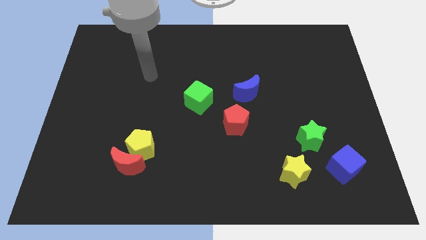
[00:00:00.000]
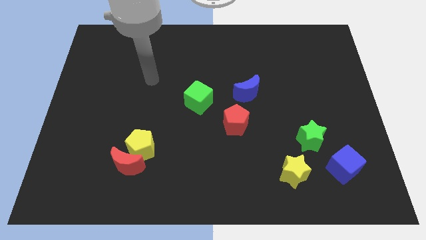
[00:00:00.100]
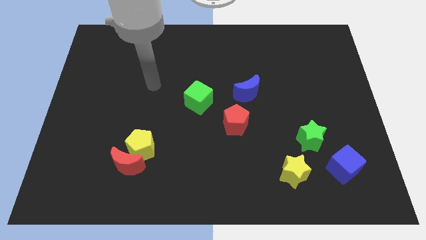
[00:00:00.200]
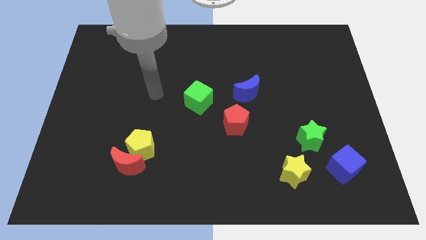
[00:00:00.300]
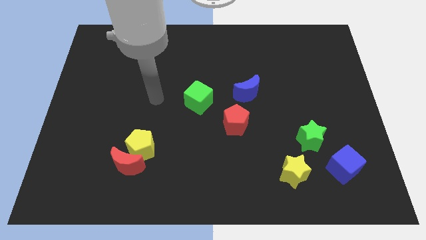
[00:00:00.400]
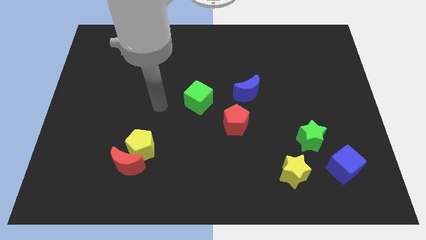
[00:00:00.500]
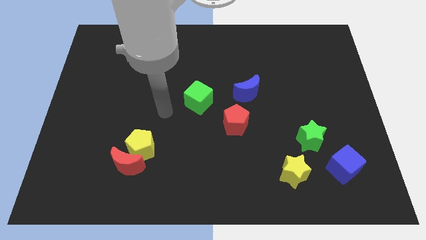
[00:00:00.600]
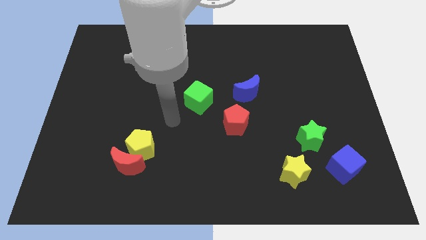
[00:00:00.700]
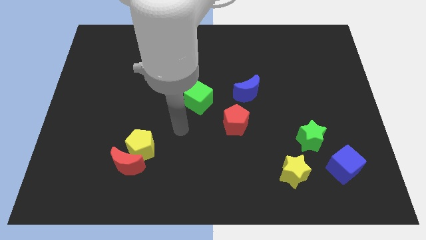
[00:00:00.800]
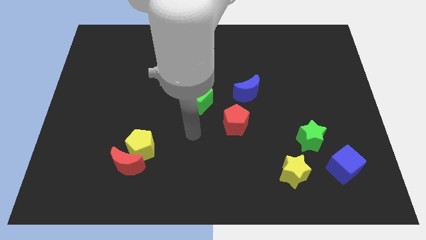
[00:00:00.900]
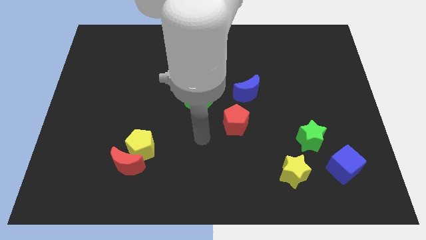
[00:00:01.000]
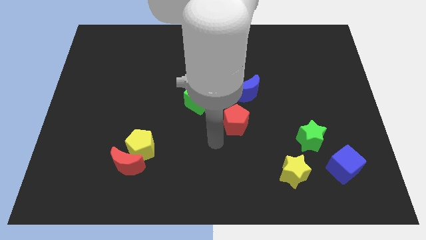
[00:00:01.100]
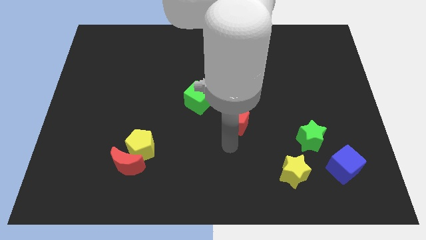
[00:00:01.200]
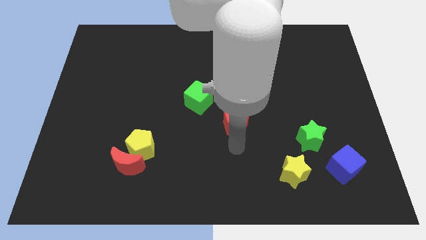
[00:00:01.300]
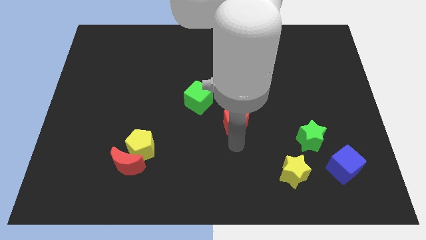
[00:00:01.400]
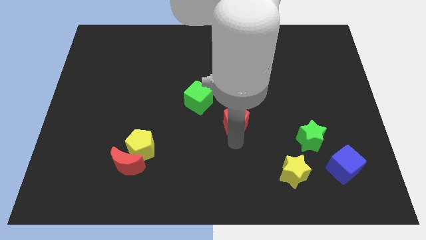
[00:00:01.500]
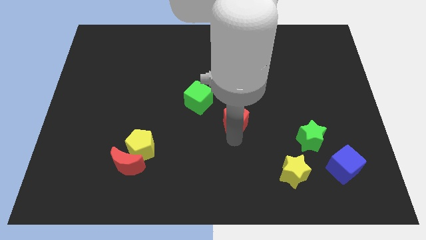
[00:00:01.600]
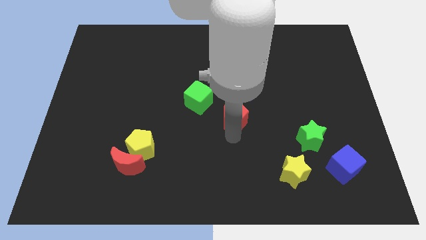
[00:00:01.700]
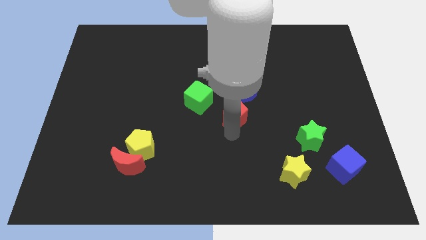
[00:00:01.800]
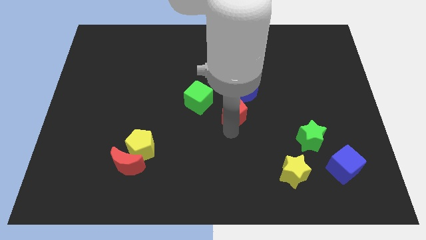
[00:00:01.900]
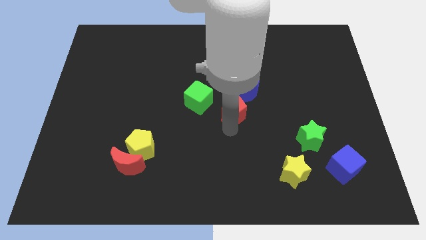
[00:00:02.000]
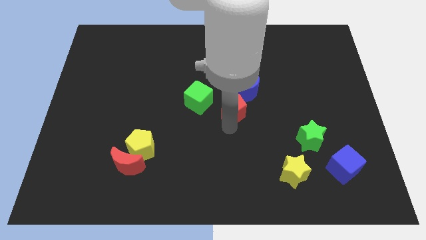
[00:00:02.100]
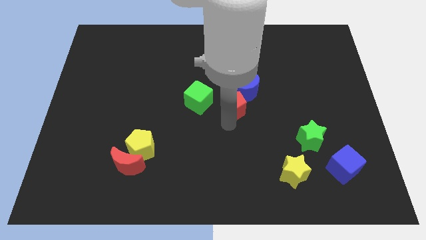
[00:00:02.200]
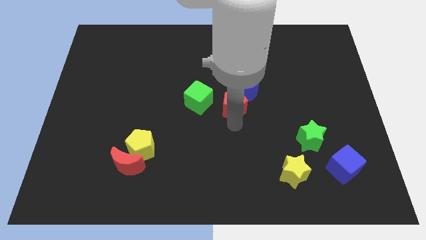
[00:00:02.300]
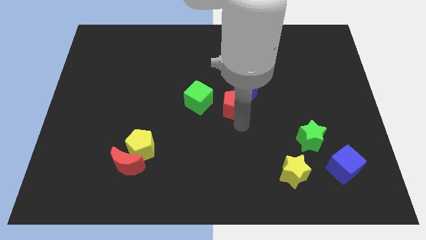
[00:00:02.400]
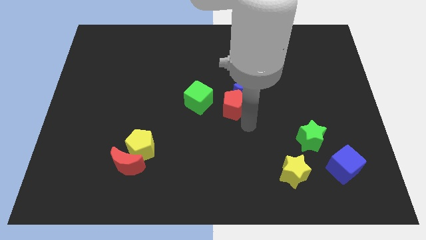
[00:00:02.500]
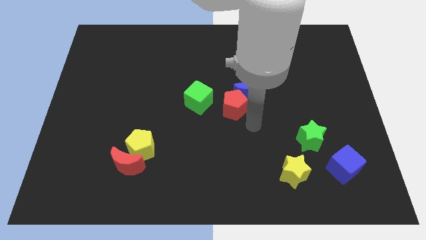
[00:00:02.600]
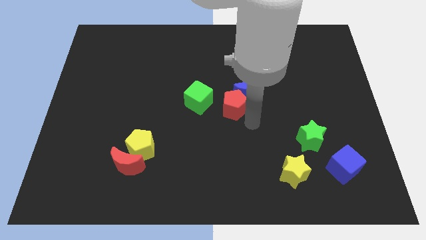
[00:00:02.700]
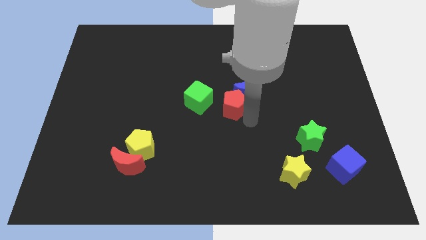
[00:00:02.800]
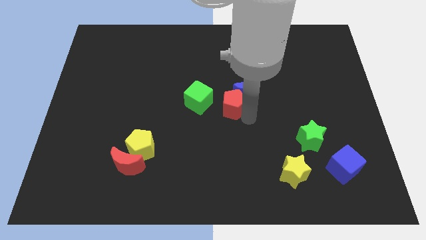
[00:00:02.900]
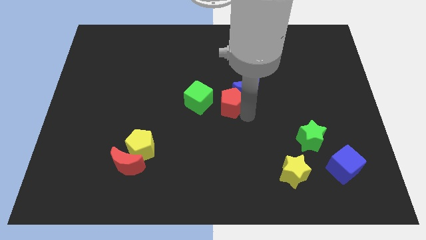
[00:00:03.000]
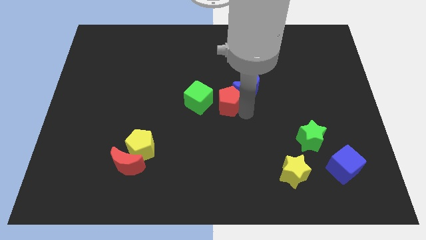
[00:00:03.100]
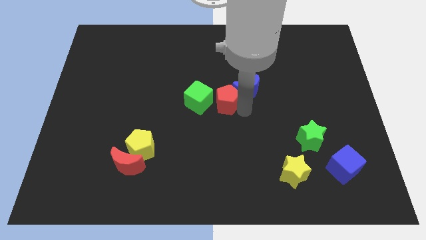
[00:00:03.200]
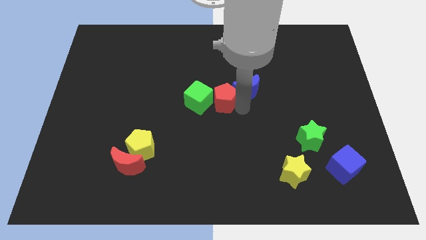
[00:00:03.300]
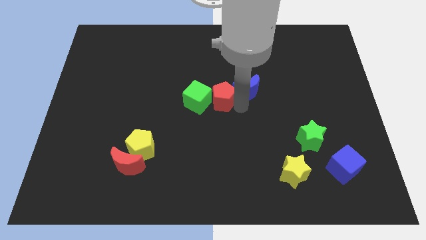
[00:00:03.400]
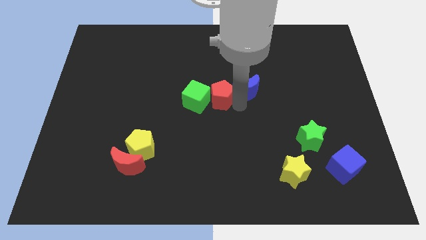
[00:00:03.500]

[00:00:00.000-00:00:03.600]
slightly move the red pentagon diagonally up and to the left

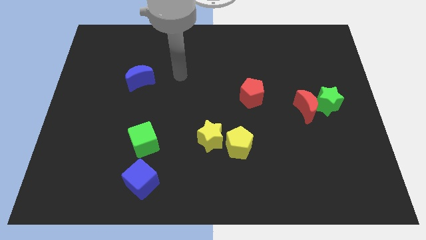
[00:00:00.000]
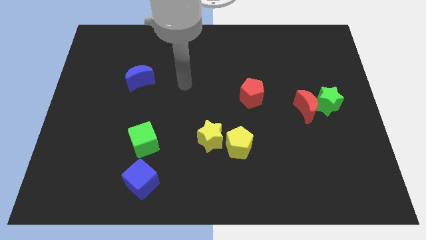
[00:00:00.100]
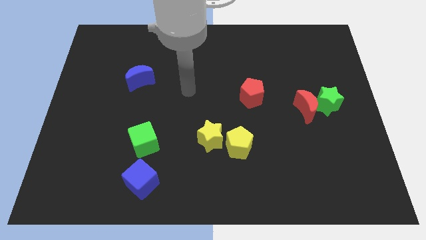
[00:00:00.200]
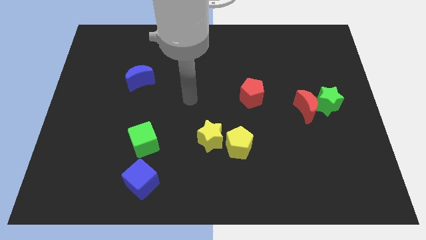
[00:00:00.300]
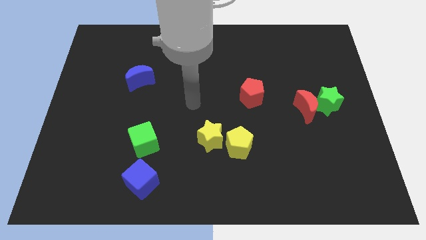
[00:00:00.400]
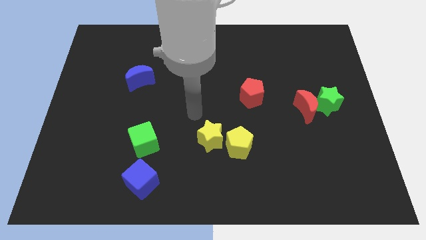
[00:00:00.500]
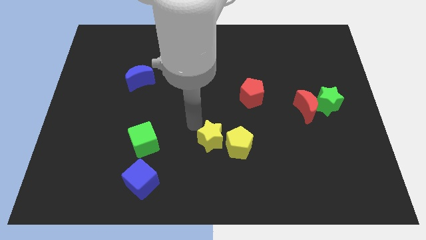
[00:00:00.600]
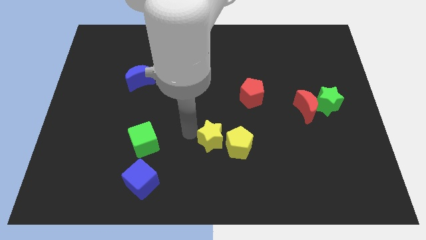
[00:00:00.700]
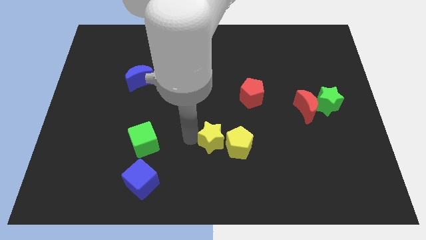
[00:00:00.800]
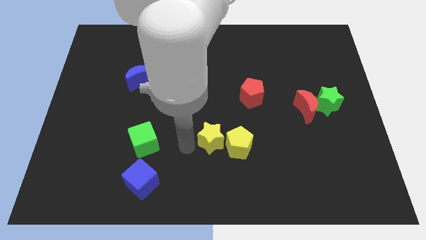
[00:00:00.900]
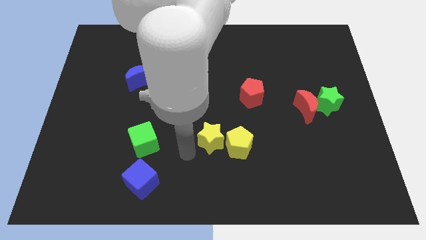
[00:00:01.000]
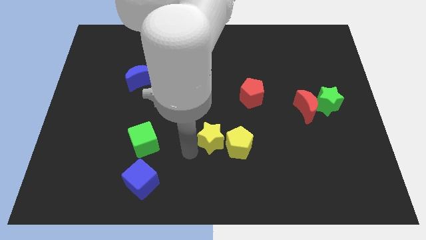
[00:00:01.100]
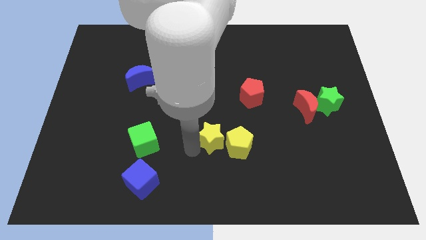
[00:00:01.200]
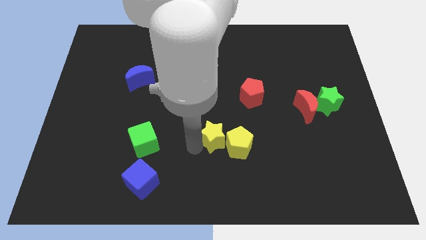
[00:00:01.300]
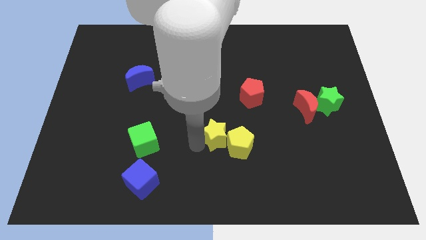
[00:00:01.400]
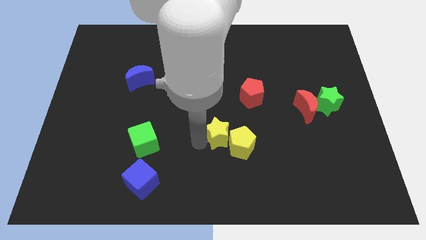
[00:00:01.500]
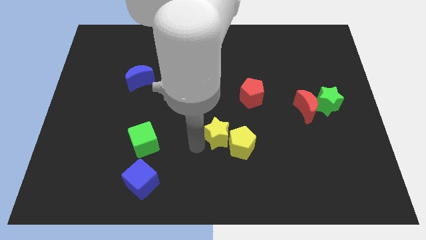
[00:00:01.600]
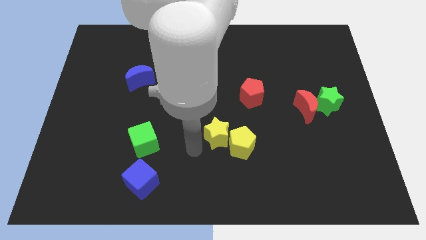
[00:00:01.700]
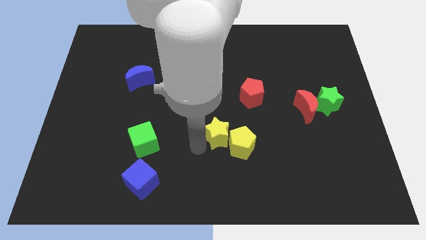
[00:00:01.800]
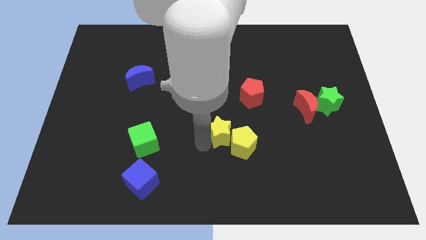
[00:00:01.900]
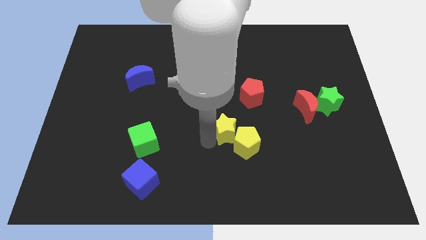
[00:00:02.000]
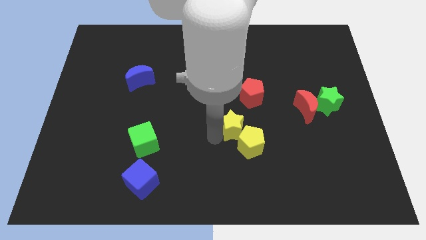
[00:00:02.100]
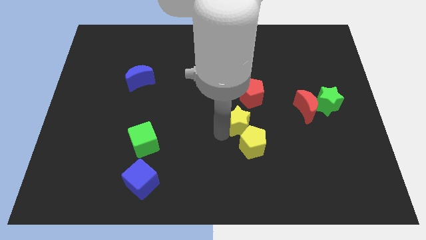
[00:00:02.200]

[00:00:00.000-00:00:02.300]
move the yellow star a bit upwards and then to the right

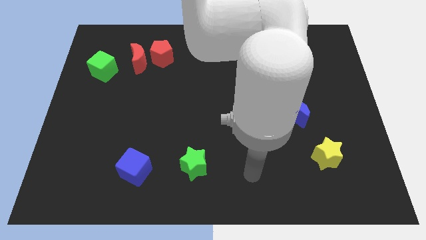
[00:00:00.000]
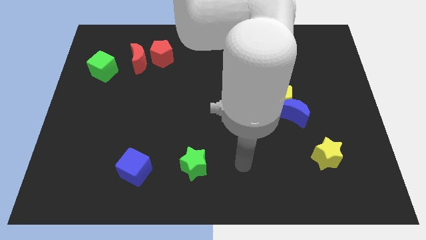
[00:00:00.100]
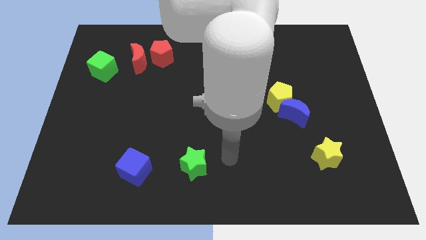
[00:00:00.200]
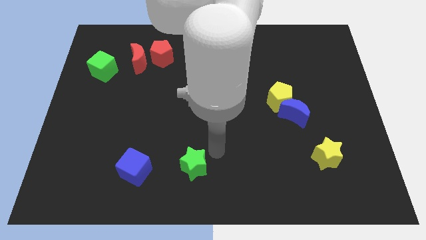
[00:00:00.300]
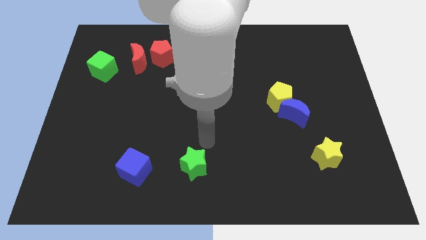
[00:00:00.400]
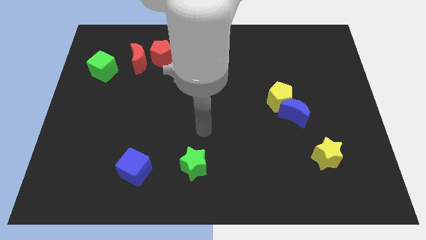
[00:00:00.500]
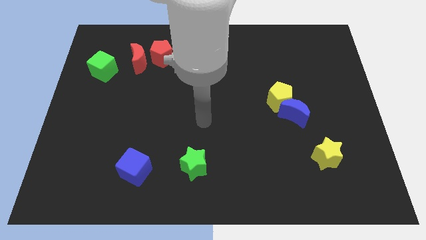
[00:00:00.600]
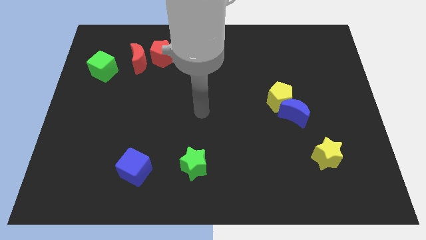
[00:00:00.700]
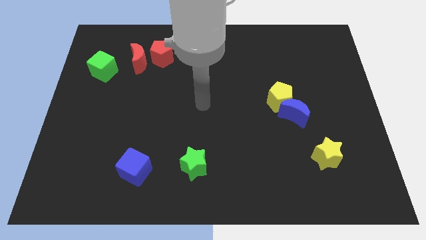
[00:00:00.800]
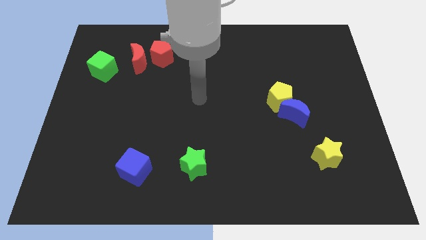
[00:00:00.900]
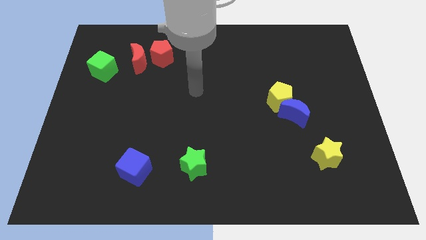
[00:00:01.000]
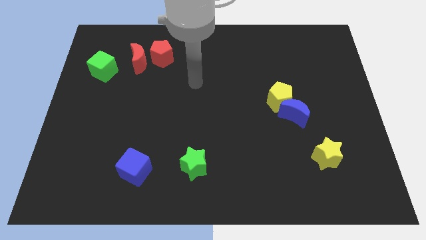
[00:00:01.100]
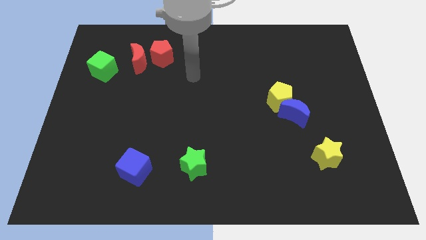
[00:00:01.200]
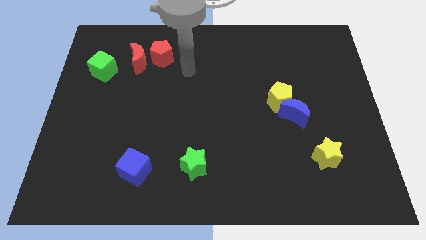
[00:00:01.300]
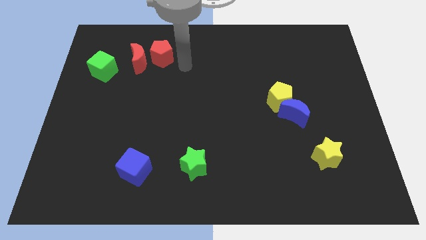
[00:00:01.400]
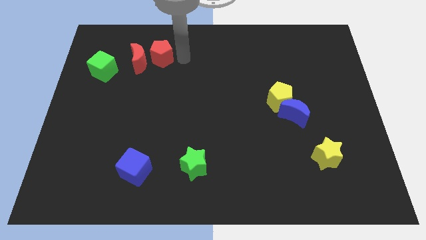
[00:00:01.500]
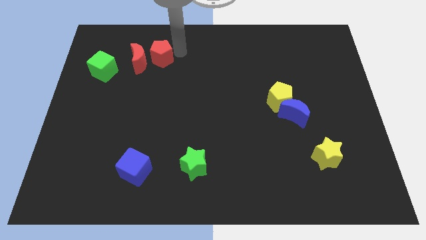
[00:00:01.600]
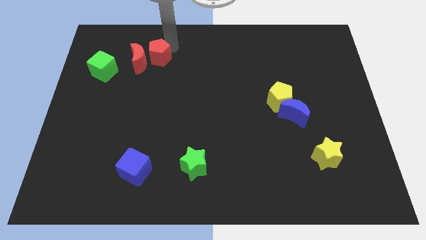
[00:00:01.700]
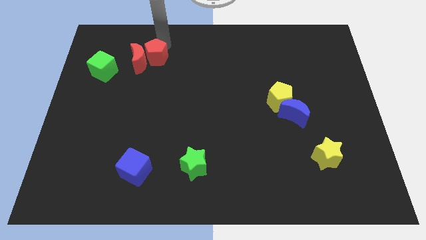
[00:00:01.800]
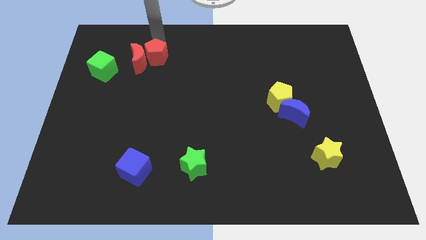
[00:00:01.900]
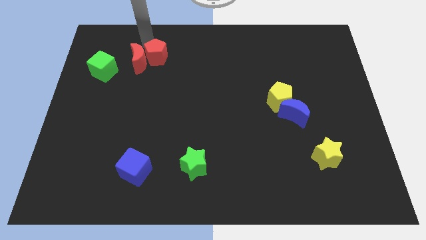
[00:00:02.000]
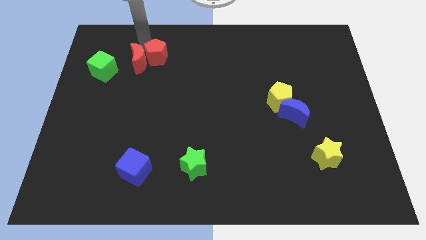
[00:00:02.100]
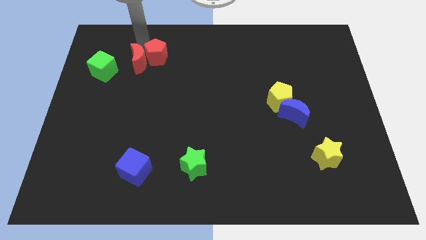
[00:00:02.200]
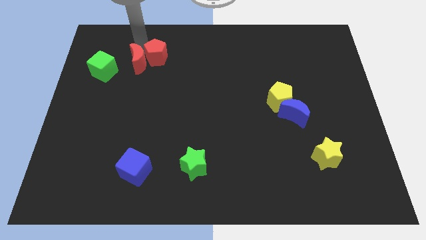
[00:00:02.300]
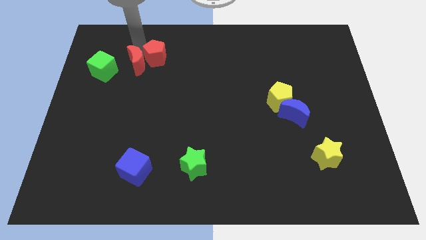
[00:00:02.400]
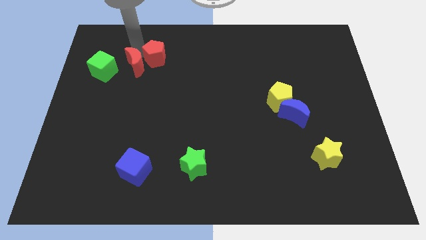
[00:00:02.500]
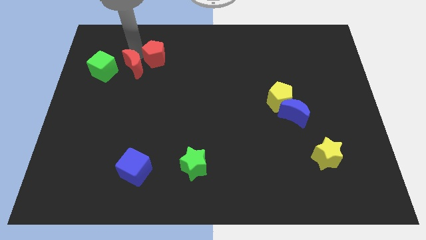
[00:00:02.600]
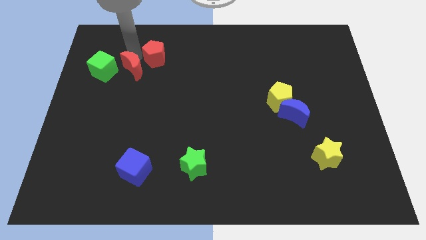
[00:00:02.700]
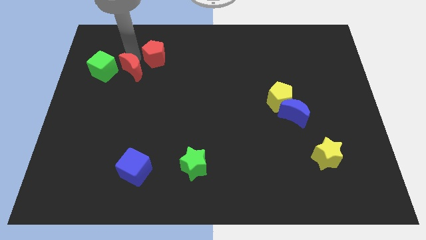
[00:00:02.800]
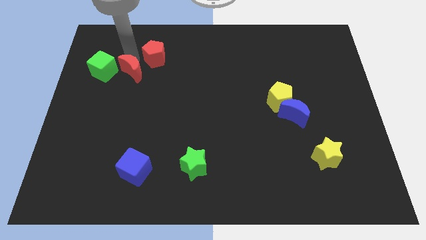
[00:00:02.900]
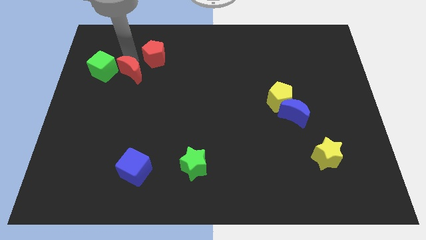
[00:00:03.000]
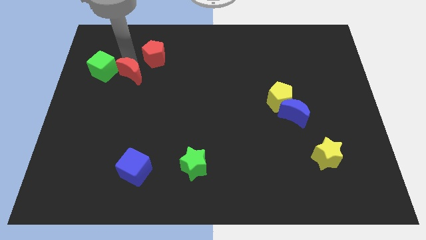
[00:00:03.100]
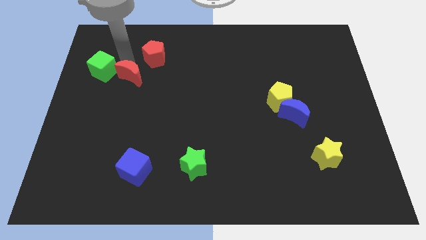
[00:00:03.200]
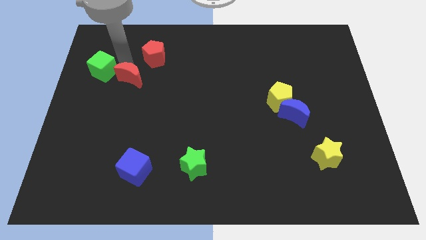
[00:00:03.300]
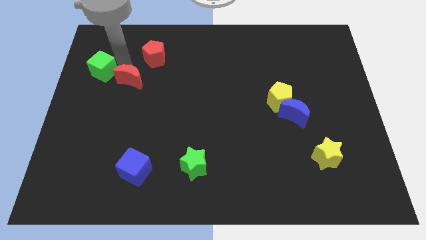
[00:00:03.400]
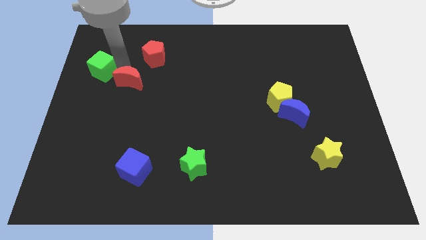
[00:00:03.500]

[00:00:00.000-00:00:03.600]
slightly push the red moon down
